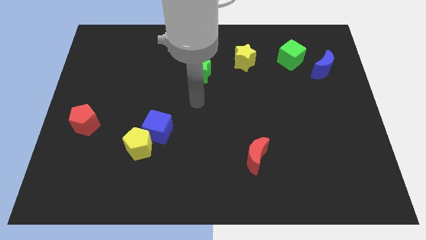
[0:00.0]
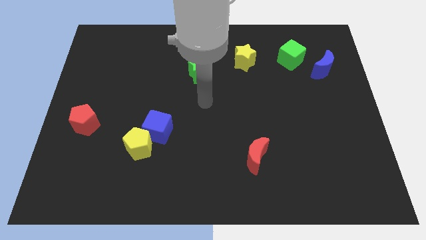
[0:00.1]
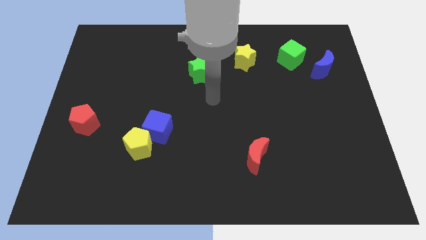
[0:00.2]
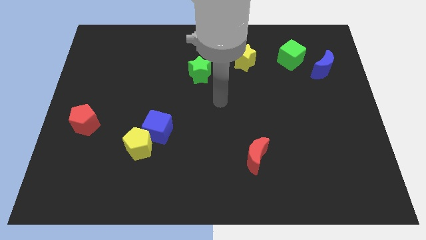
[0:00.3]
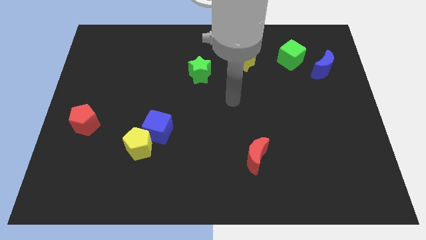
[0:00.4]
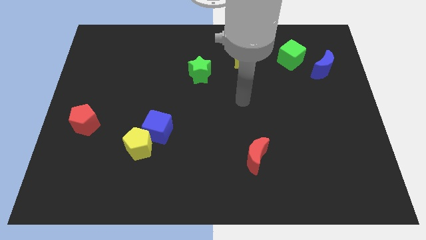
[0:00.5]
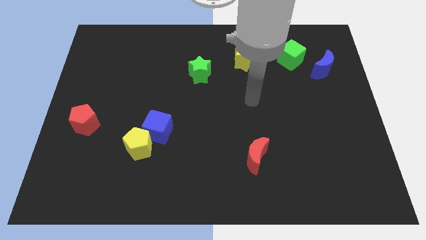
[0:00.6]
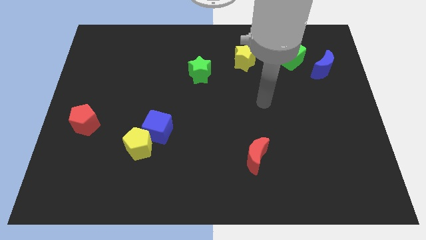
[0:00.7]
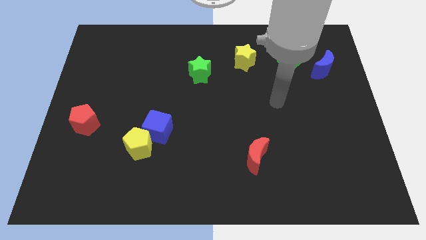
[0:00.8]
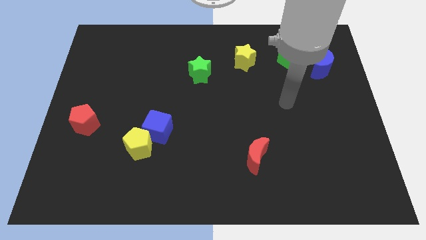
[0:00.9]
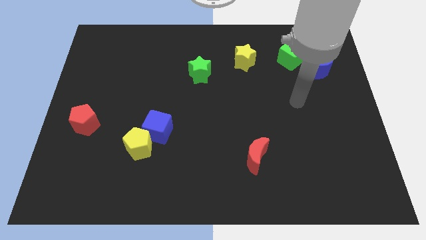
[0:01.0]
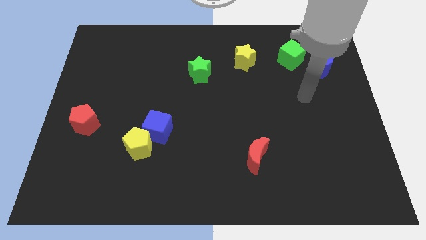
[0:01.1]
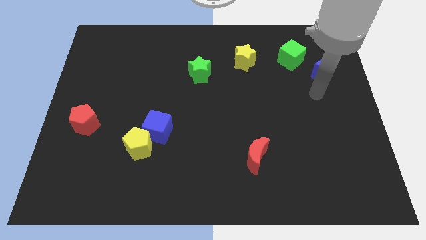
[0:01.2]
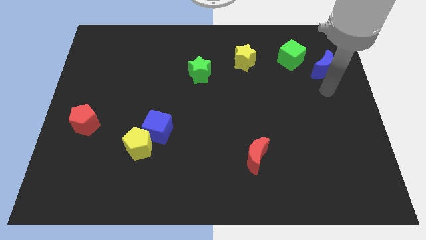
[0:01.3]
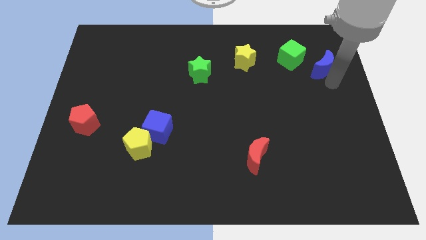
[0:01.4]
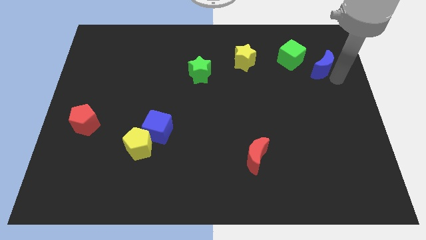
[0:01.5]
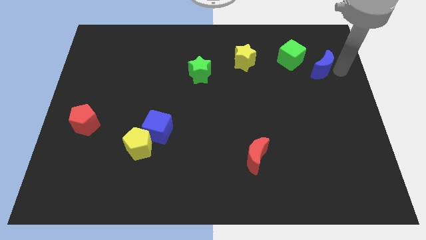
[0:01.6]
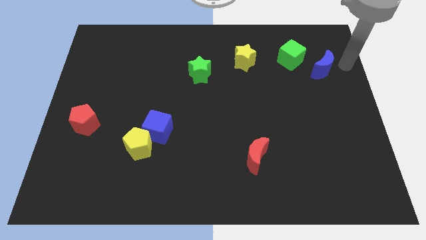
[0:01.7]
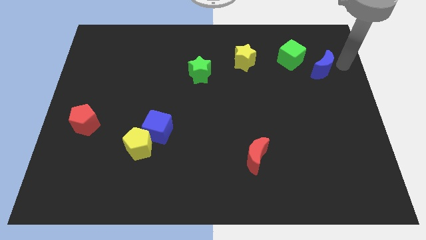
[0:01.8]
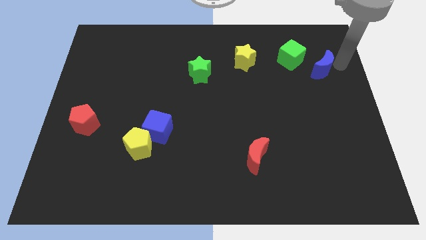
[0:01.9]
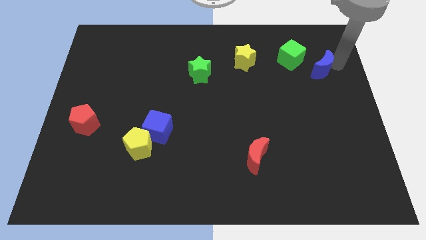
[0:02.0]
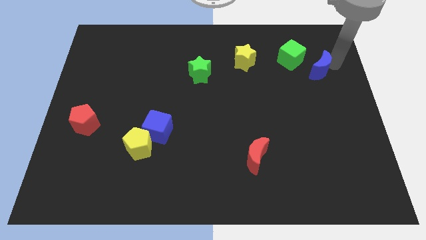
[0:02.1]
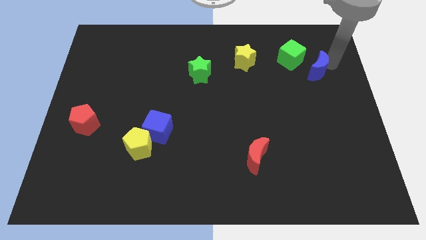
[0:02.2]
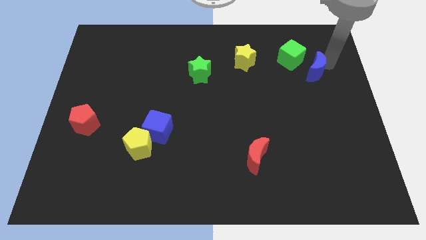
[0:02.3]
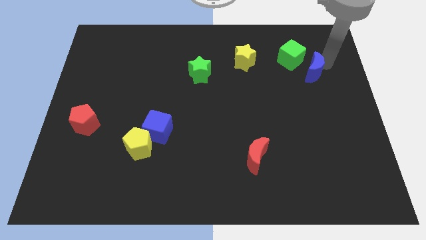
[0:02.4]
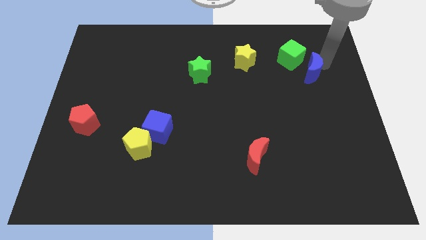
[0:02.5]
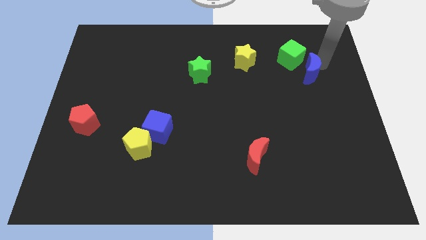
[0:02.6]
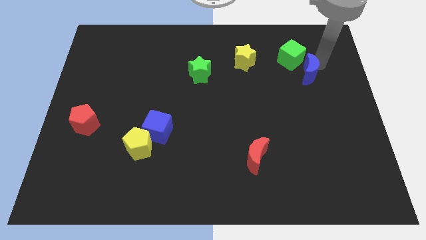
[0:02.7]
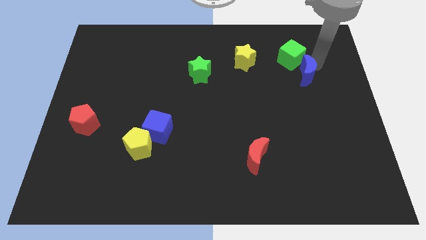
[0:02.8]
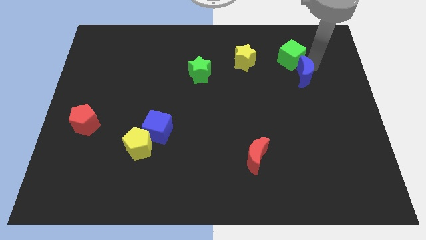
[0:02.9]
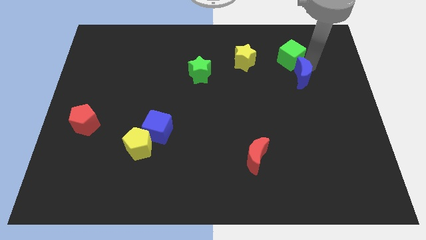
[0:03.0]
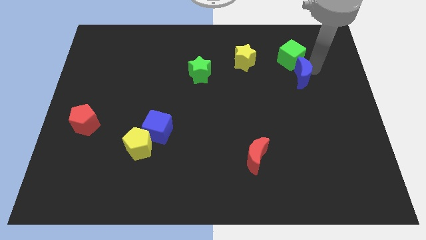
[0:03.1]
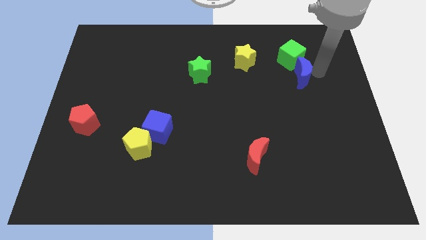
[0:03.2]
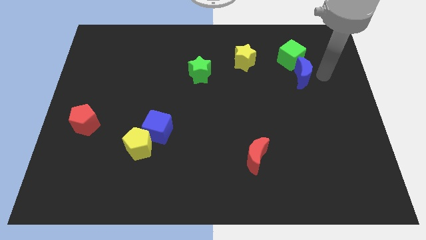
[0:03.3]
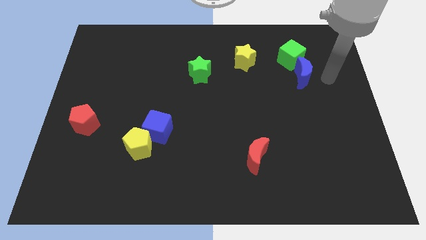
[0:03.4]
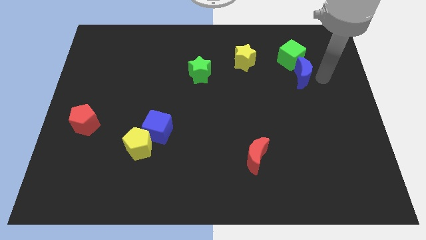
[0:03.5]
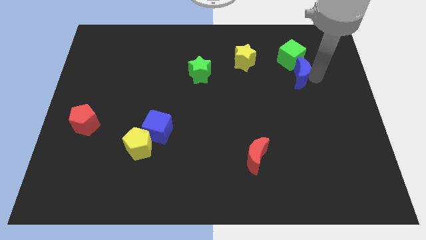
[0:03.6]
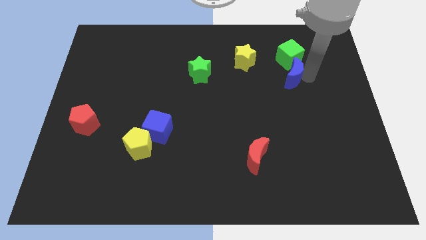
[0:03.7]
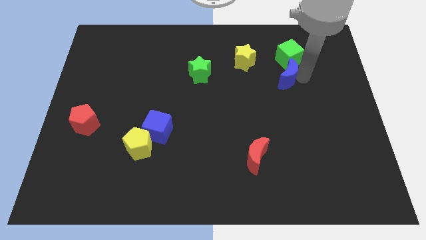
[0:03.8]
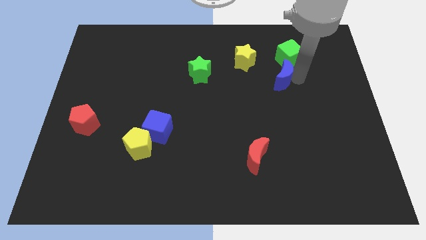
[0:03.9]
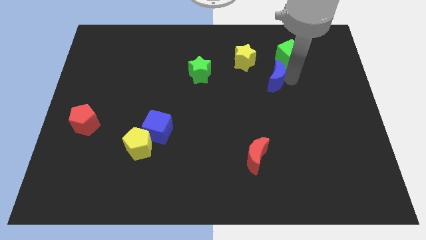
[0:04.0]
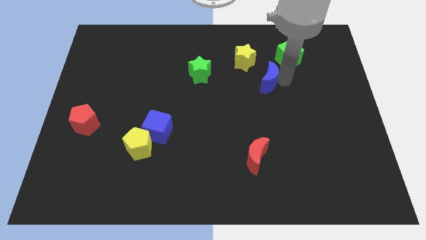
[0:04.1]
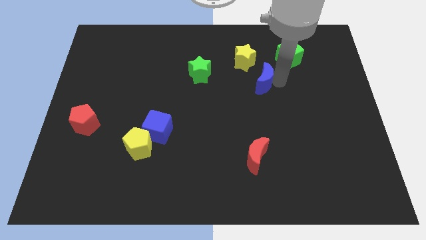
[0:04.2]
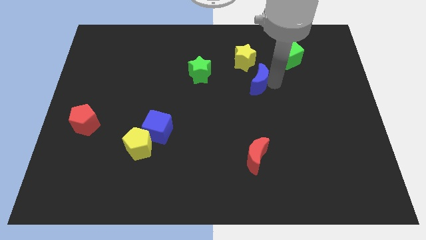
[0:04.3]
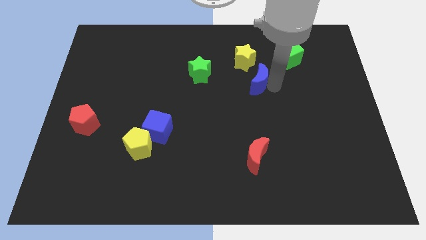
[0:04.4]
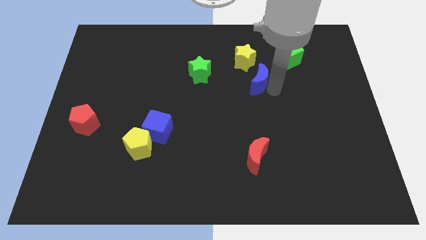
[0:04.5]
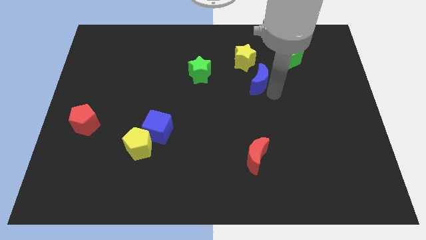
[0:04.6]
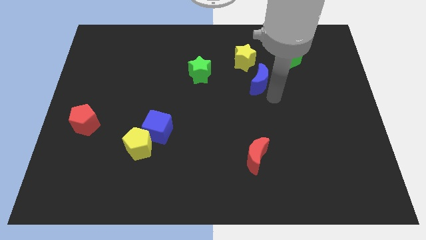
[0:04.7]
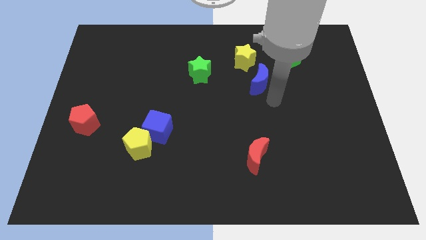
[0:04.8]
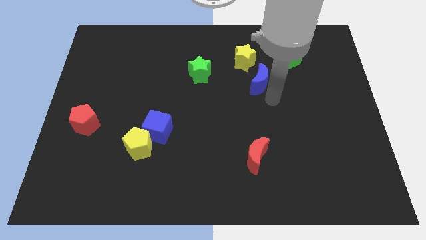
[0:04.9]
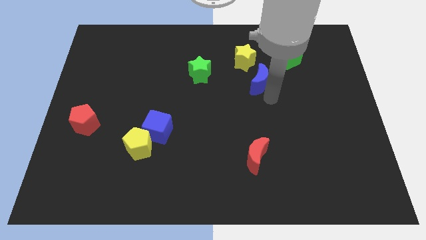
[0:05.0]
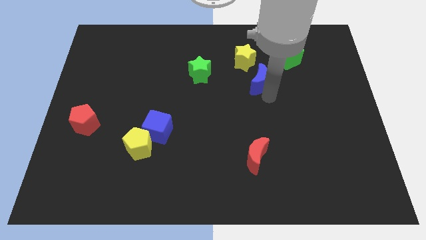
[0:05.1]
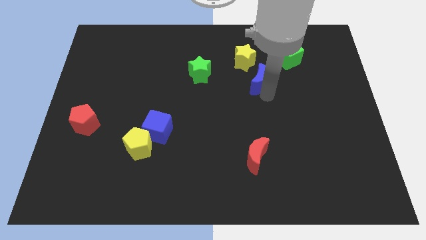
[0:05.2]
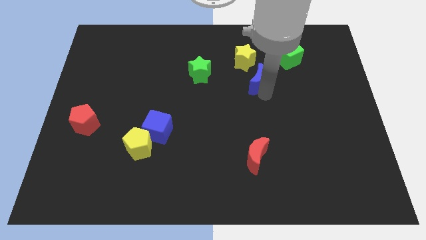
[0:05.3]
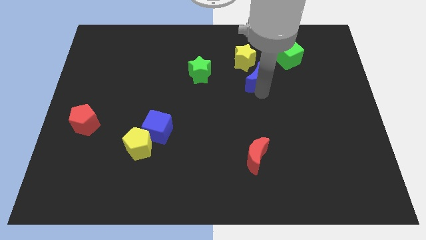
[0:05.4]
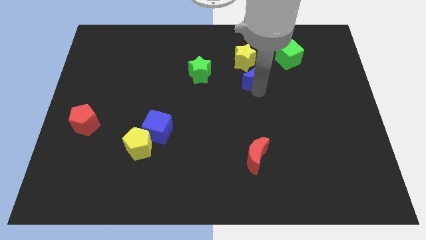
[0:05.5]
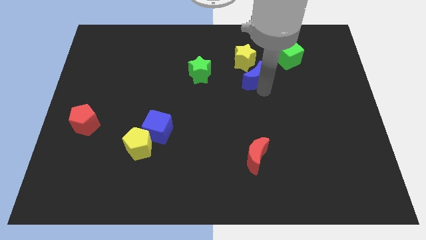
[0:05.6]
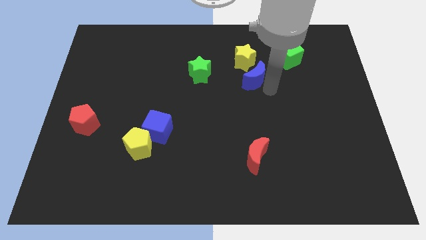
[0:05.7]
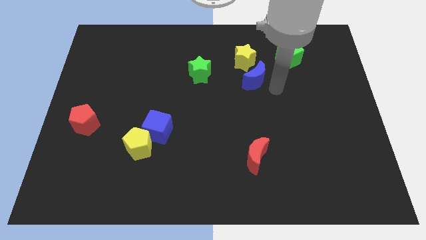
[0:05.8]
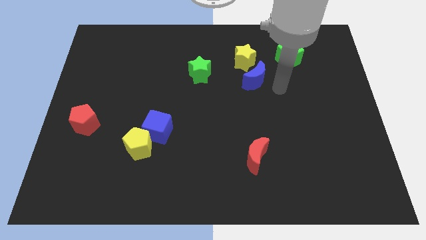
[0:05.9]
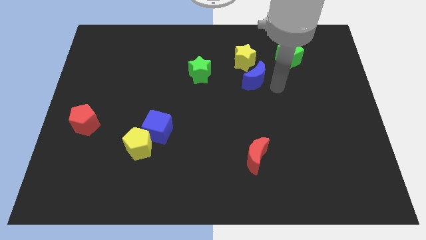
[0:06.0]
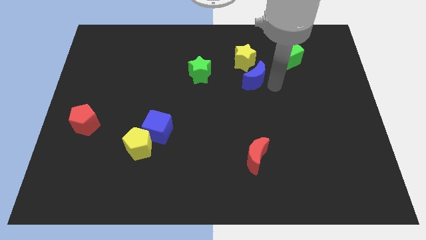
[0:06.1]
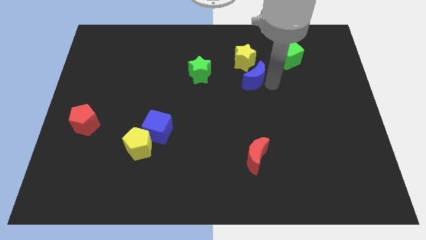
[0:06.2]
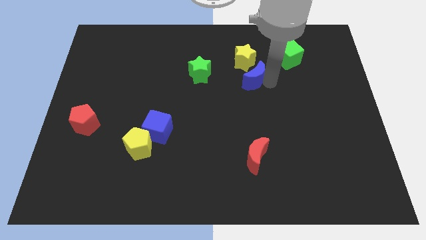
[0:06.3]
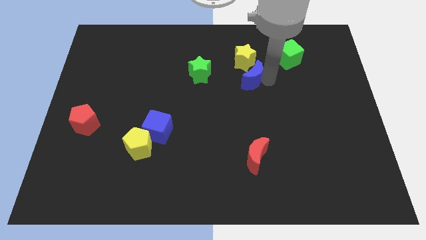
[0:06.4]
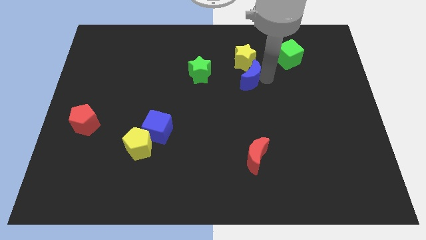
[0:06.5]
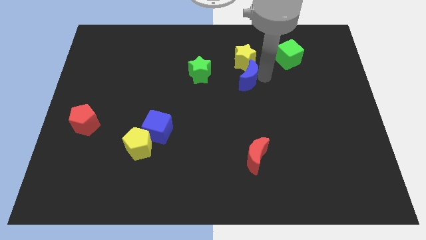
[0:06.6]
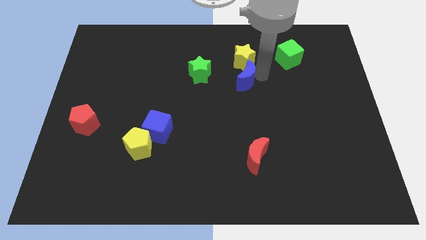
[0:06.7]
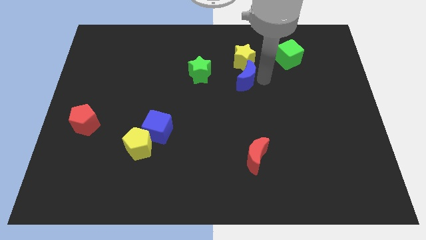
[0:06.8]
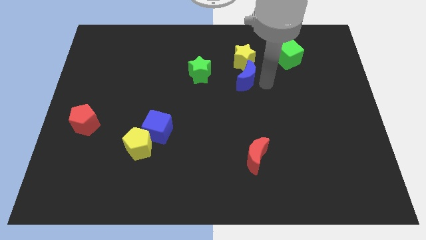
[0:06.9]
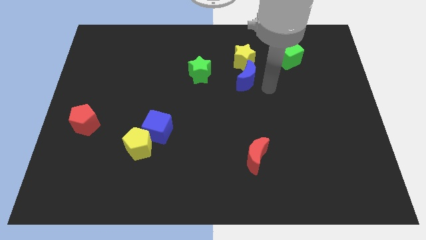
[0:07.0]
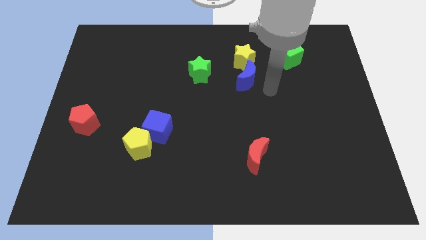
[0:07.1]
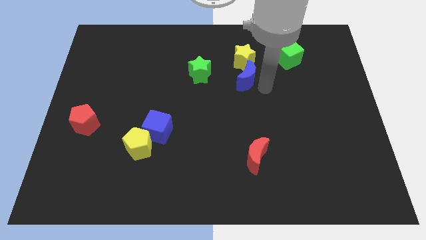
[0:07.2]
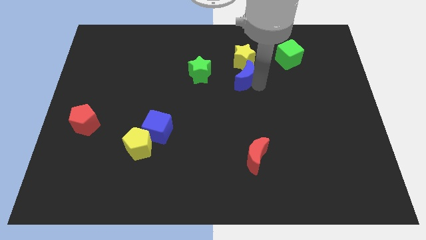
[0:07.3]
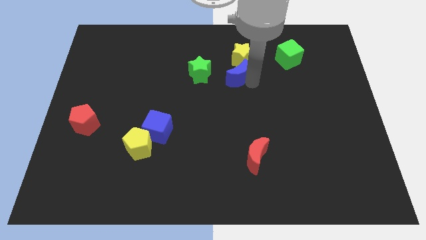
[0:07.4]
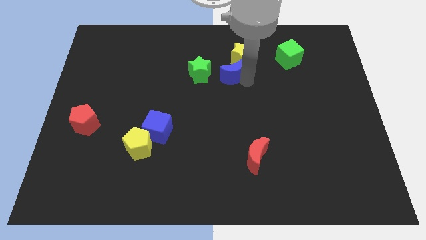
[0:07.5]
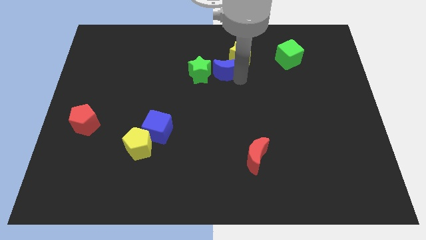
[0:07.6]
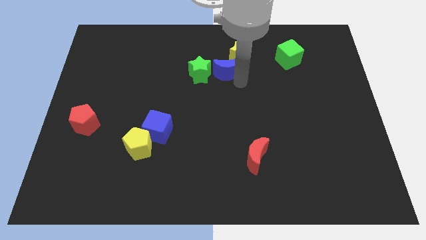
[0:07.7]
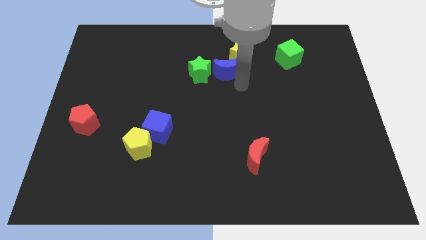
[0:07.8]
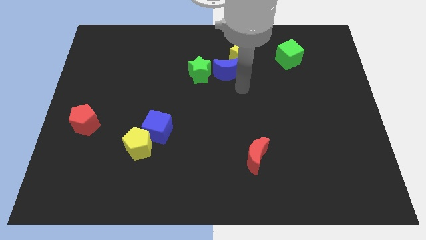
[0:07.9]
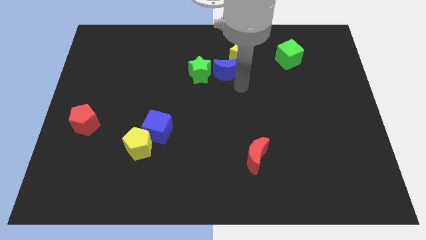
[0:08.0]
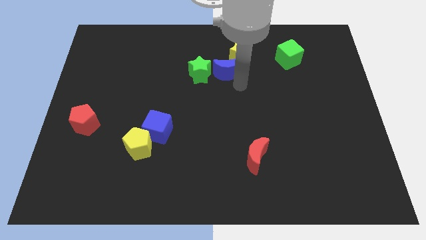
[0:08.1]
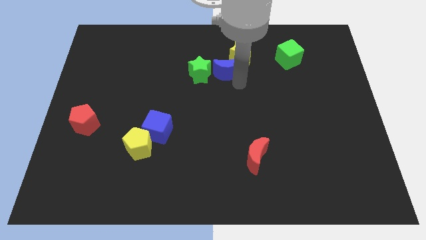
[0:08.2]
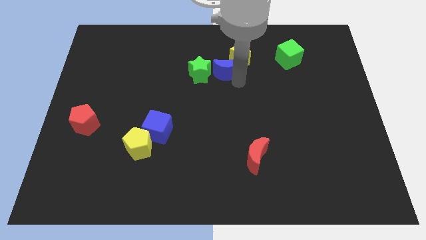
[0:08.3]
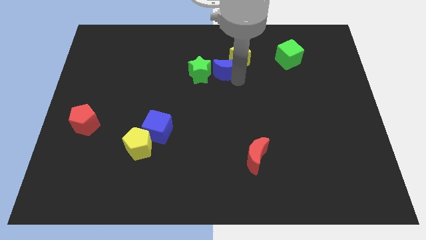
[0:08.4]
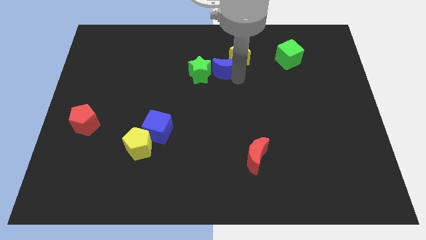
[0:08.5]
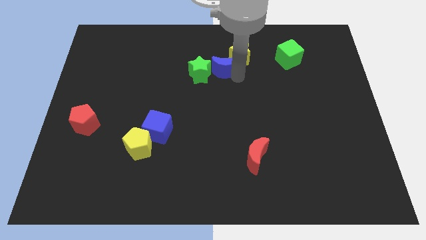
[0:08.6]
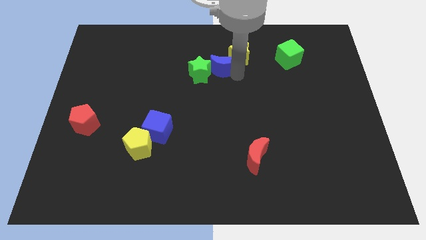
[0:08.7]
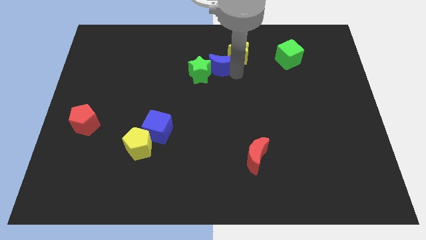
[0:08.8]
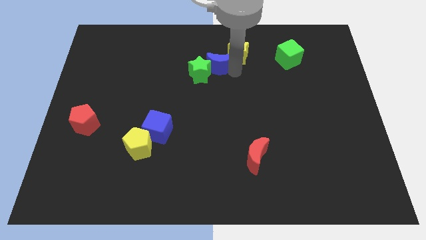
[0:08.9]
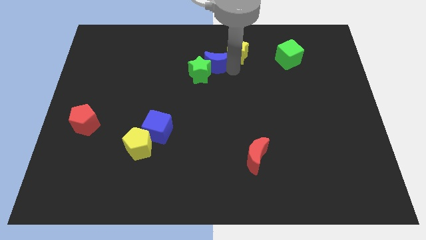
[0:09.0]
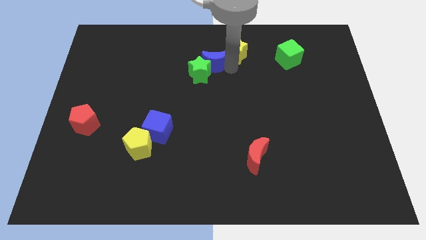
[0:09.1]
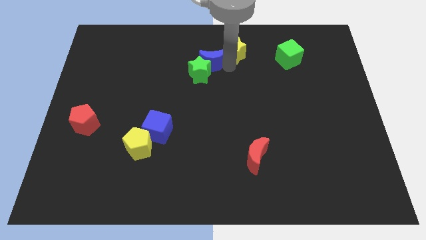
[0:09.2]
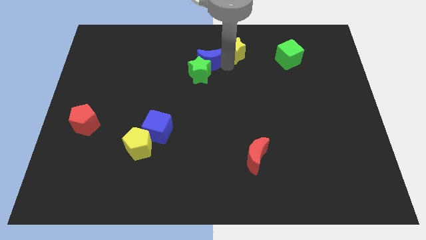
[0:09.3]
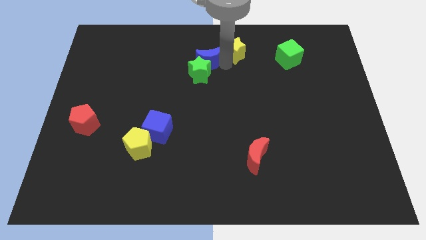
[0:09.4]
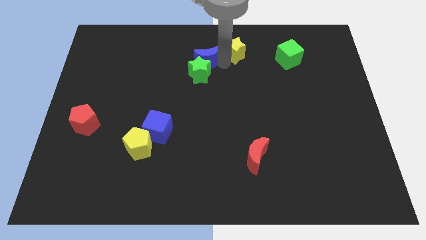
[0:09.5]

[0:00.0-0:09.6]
slide the blue moon to the top left of the green star
